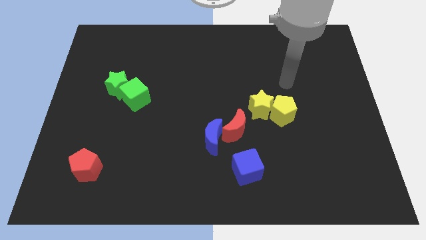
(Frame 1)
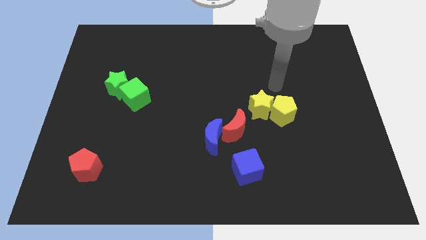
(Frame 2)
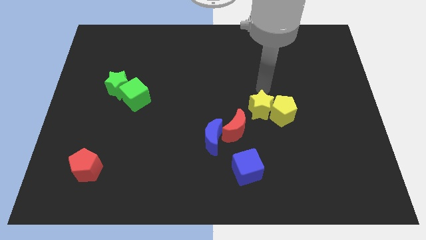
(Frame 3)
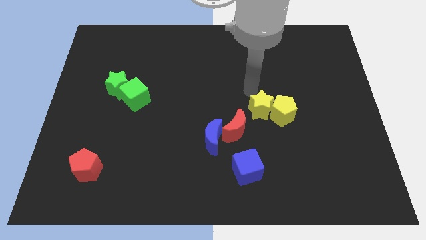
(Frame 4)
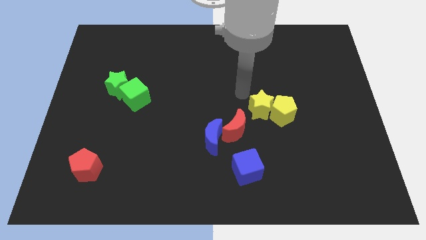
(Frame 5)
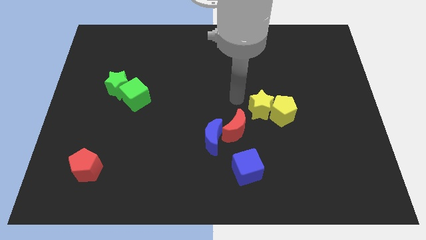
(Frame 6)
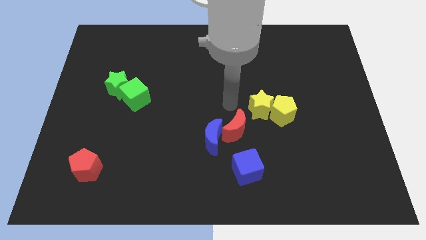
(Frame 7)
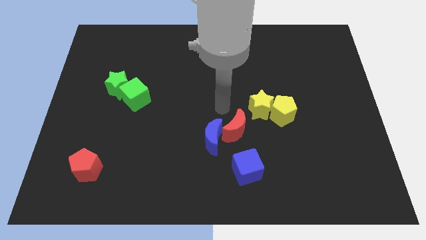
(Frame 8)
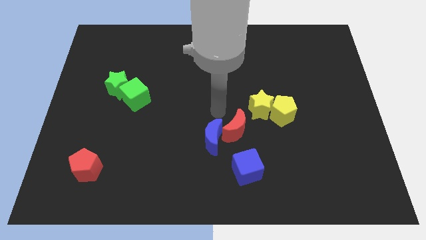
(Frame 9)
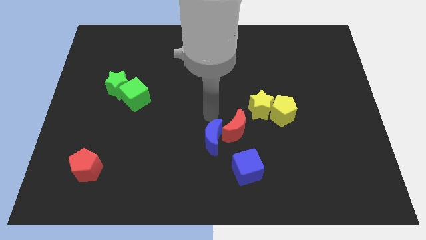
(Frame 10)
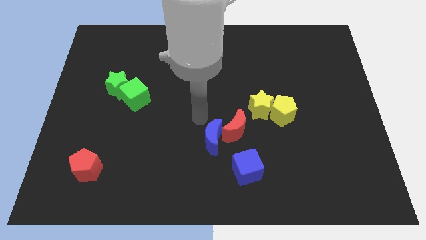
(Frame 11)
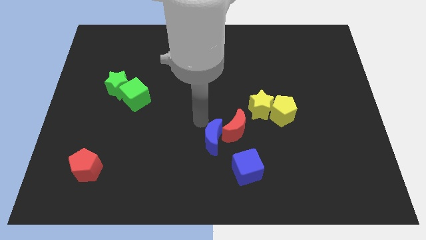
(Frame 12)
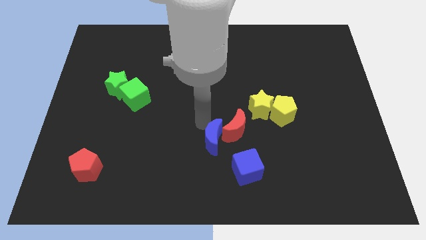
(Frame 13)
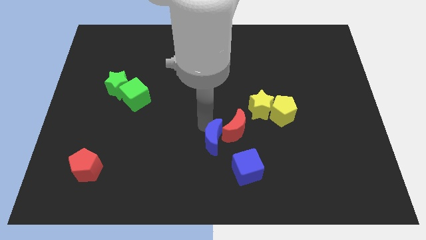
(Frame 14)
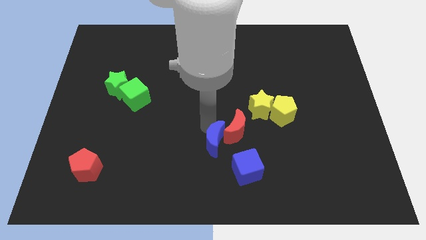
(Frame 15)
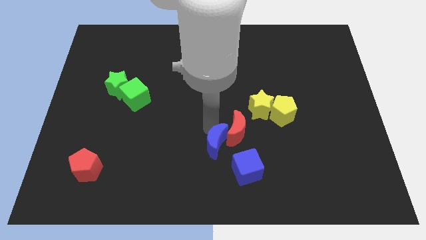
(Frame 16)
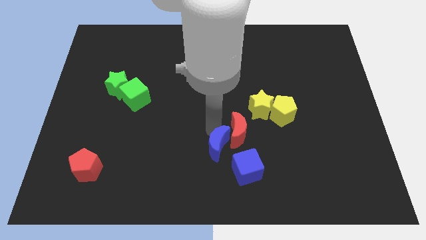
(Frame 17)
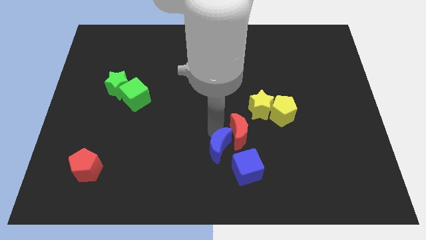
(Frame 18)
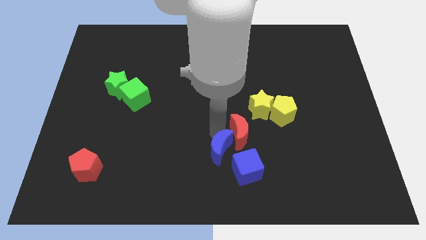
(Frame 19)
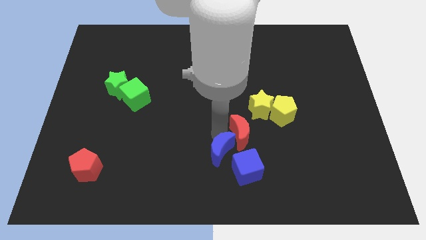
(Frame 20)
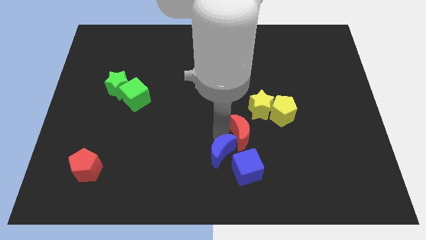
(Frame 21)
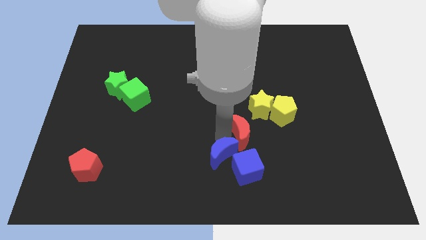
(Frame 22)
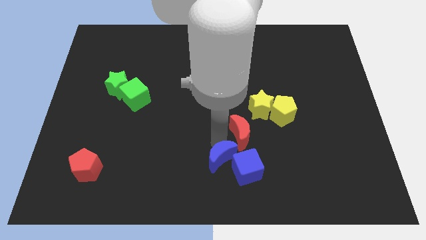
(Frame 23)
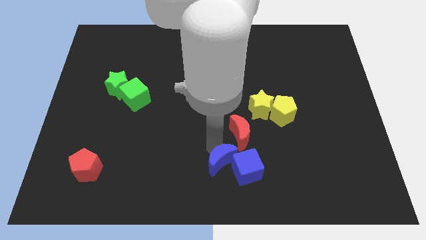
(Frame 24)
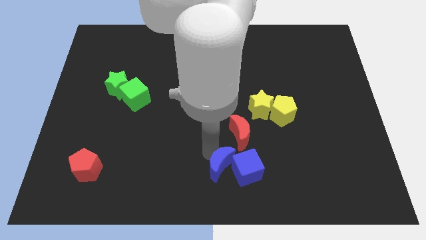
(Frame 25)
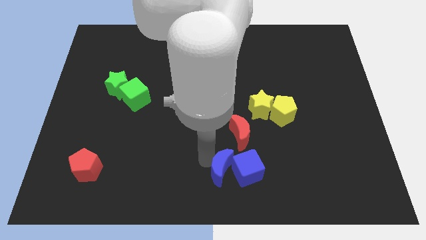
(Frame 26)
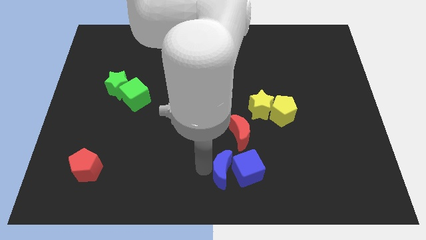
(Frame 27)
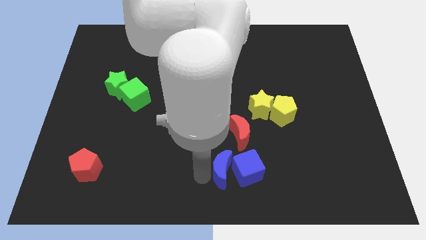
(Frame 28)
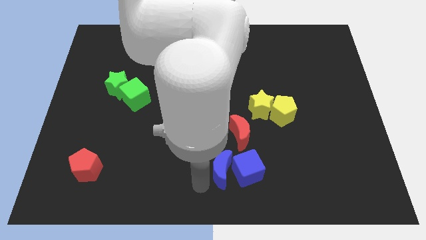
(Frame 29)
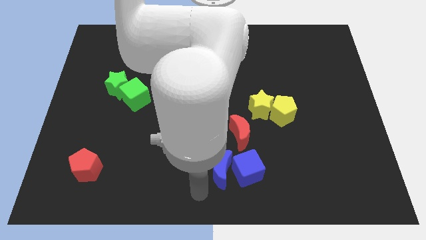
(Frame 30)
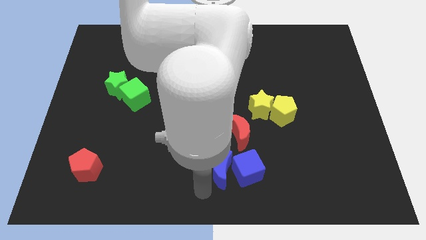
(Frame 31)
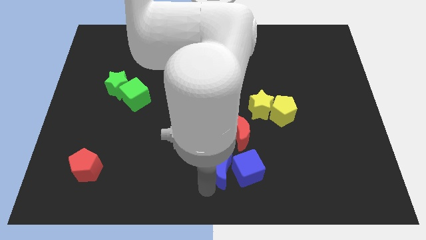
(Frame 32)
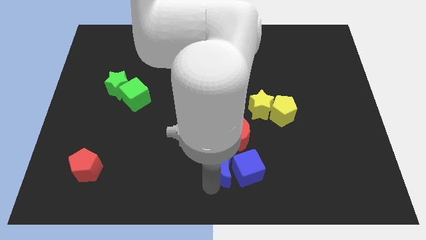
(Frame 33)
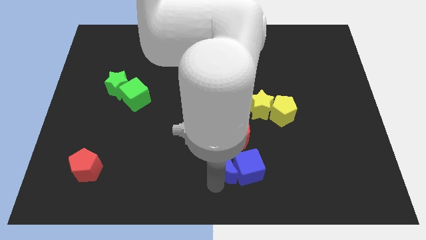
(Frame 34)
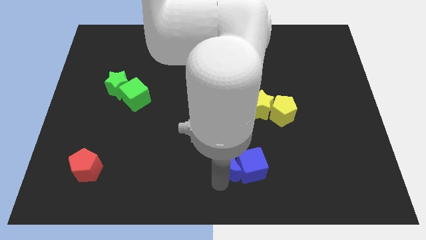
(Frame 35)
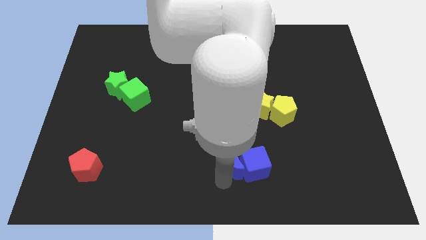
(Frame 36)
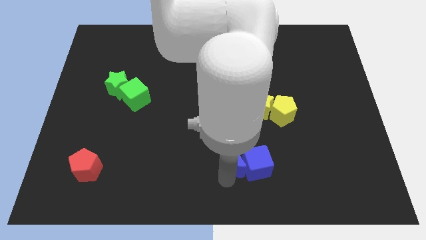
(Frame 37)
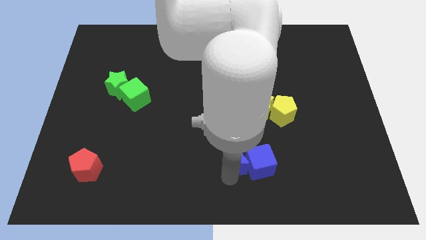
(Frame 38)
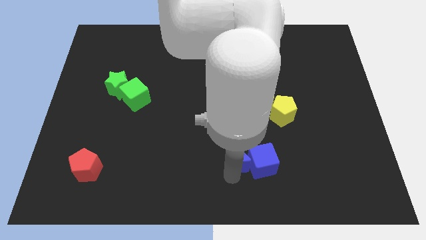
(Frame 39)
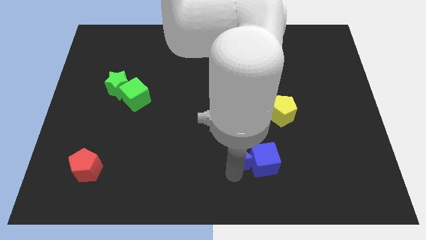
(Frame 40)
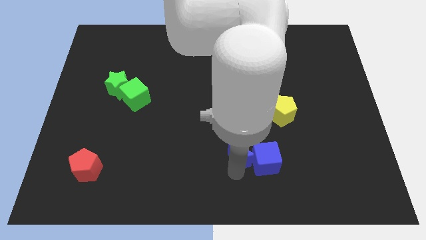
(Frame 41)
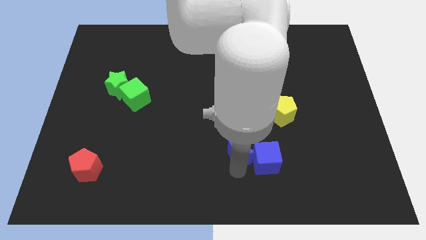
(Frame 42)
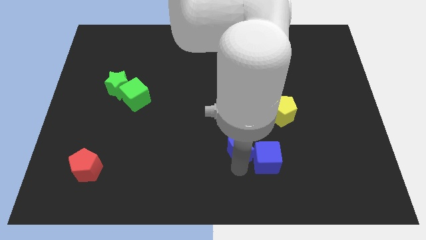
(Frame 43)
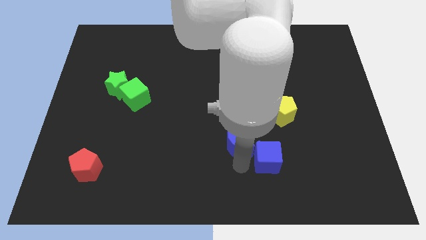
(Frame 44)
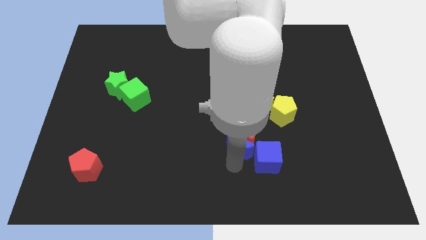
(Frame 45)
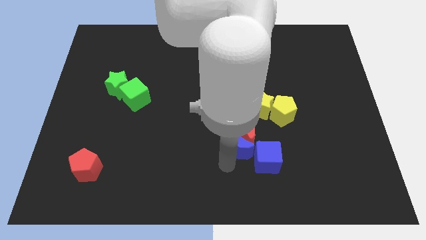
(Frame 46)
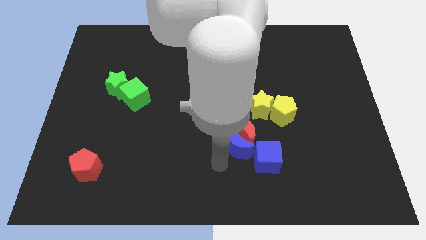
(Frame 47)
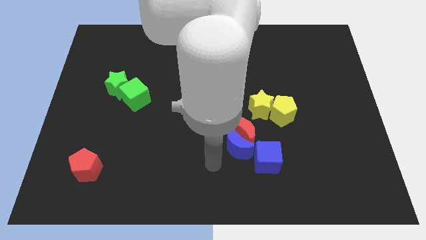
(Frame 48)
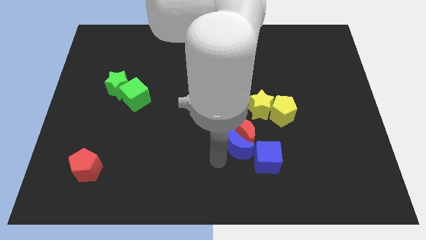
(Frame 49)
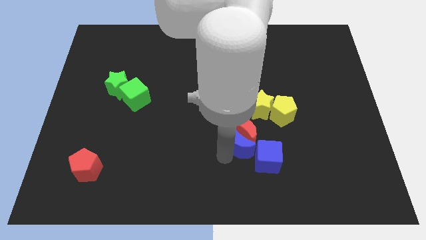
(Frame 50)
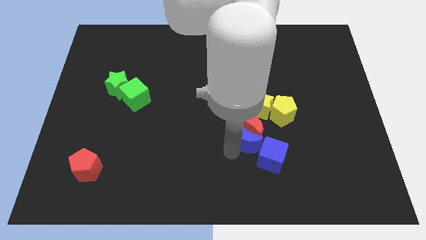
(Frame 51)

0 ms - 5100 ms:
slide the blue moon diagonally down and to the left of the yellow pentagon

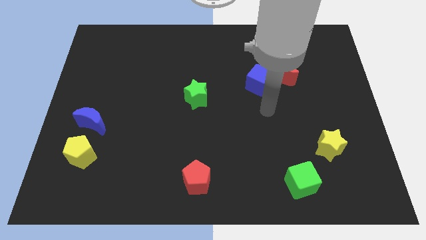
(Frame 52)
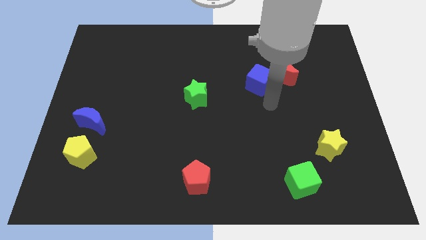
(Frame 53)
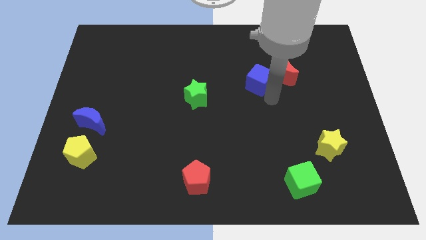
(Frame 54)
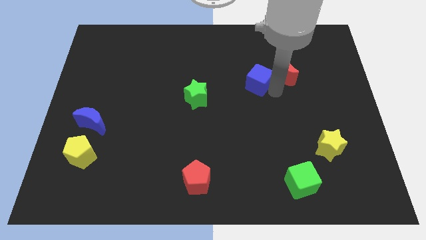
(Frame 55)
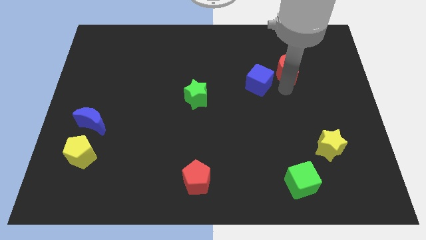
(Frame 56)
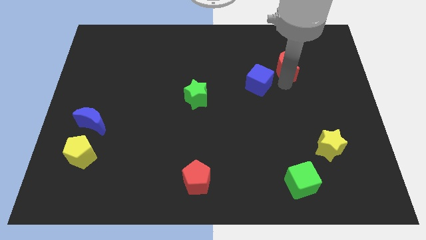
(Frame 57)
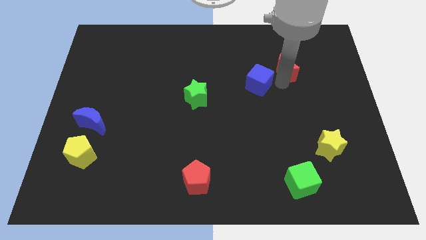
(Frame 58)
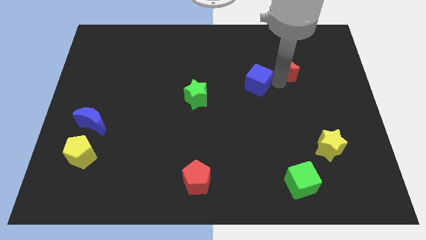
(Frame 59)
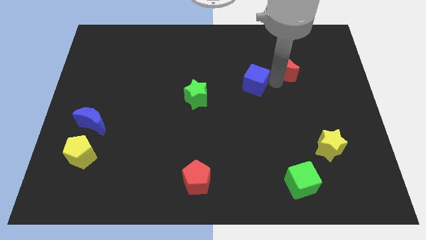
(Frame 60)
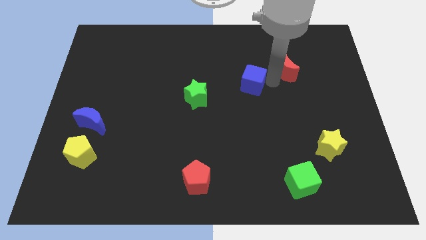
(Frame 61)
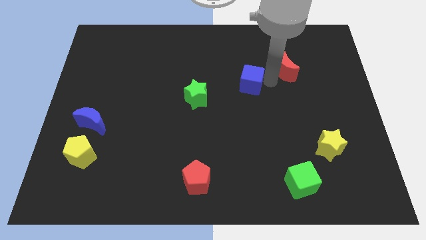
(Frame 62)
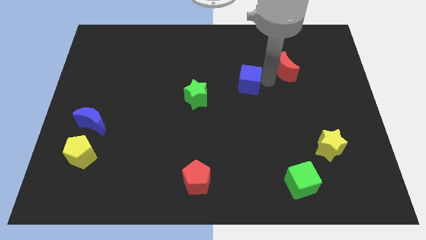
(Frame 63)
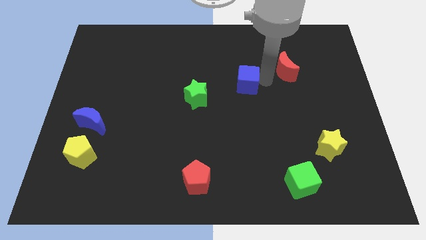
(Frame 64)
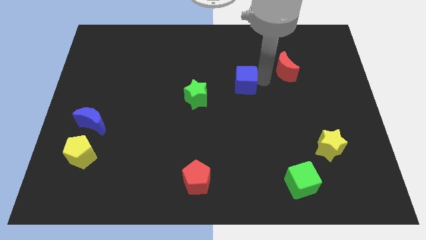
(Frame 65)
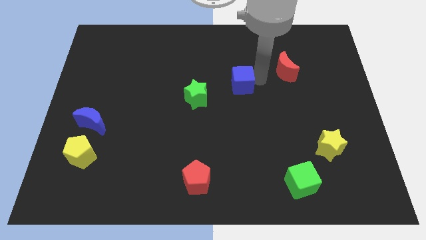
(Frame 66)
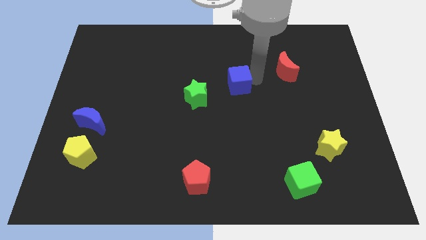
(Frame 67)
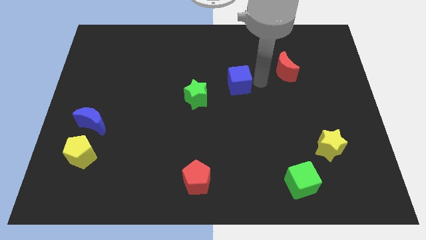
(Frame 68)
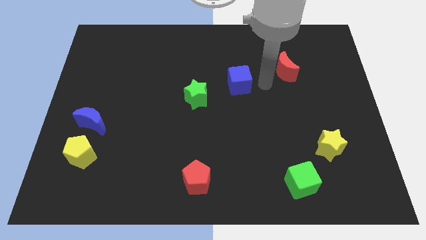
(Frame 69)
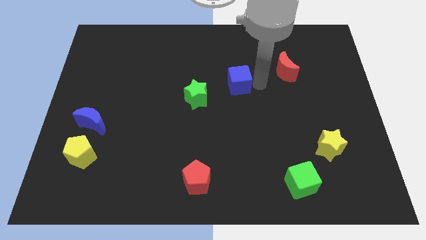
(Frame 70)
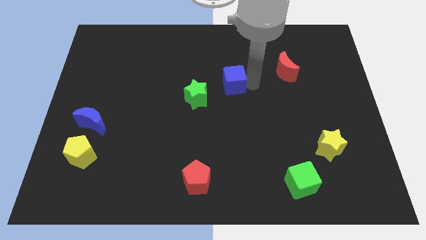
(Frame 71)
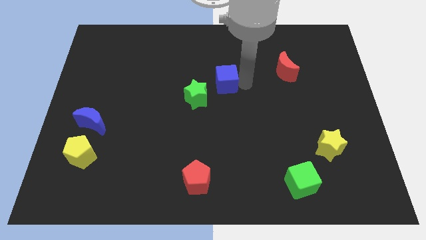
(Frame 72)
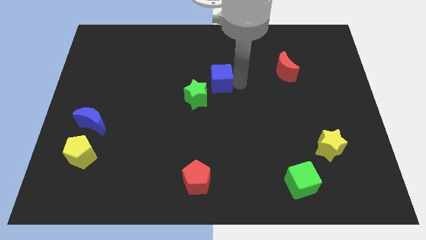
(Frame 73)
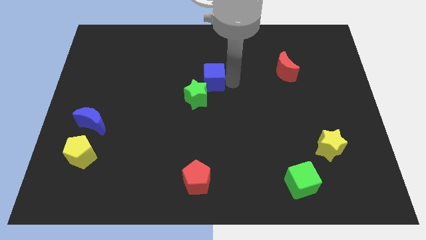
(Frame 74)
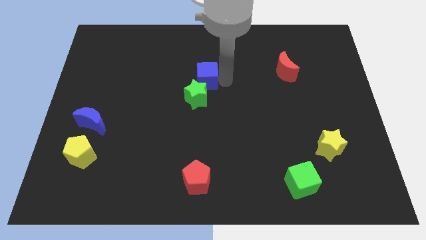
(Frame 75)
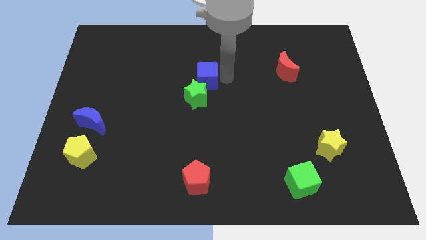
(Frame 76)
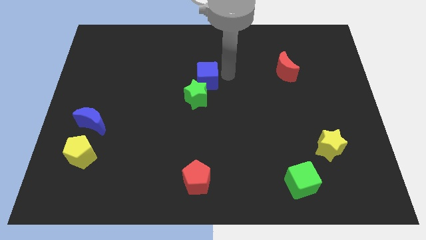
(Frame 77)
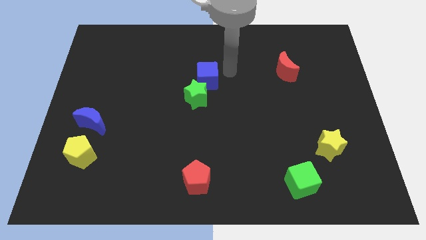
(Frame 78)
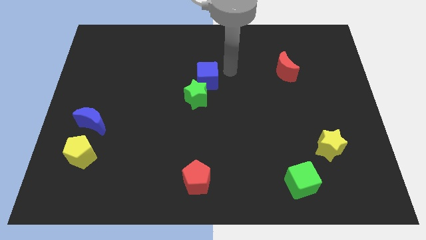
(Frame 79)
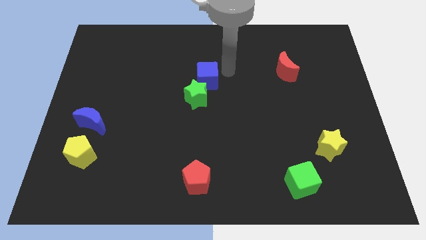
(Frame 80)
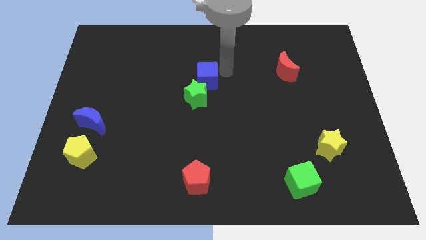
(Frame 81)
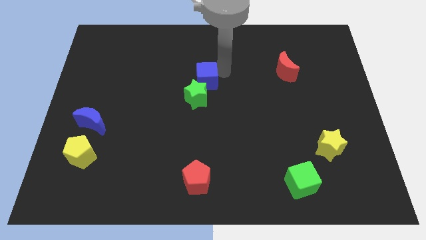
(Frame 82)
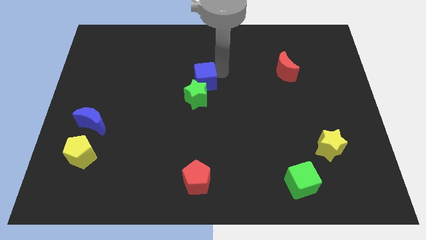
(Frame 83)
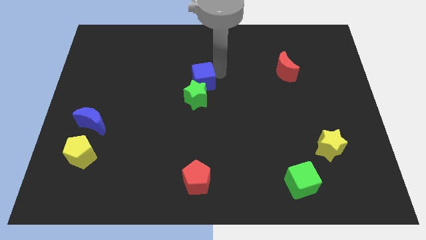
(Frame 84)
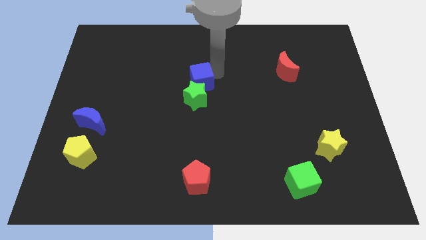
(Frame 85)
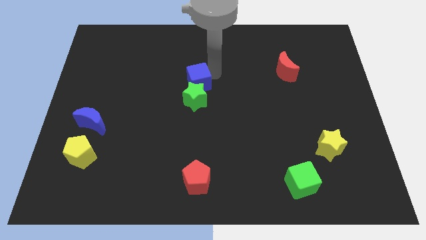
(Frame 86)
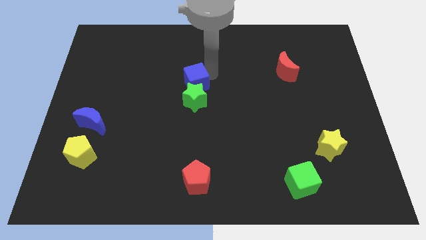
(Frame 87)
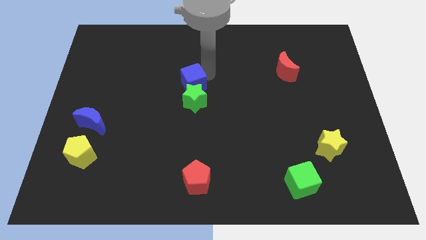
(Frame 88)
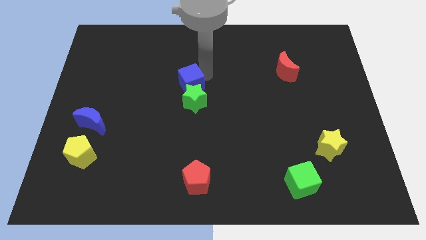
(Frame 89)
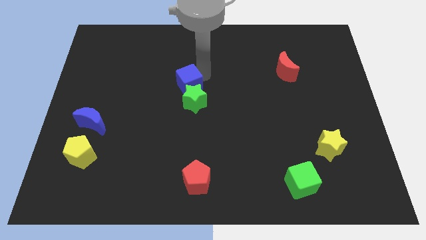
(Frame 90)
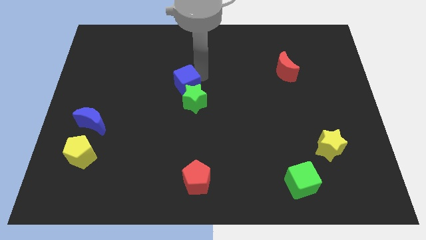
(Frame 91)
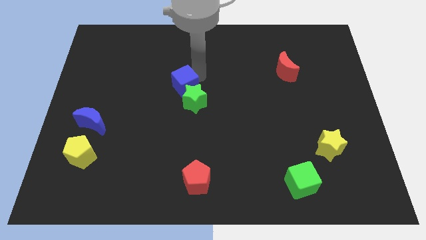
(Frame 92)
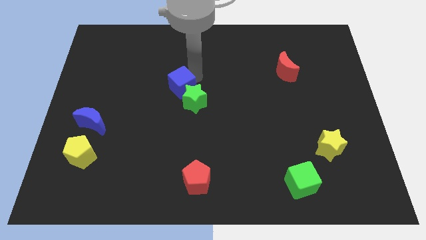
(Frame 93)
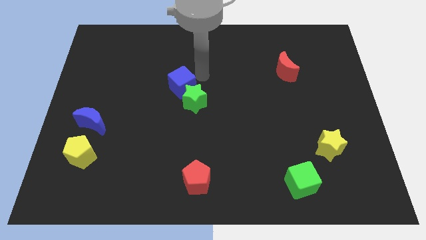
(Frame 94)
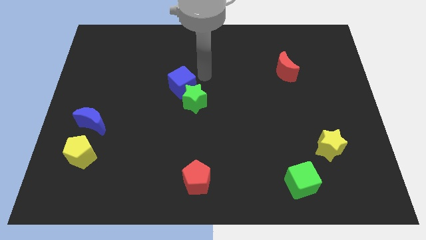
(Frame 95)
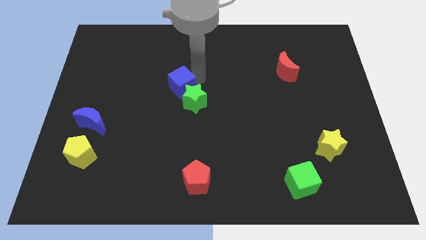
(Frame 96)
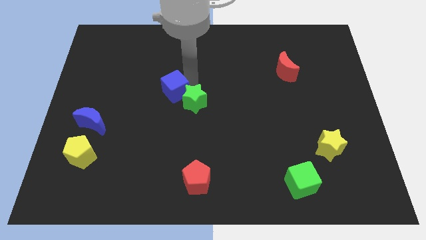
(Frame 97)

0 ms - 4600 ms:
put the blue cube to the left side of the green star
